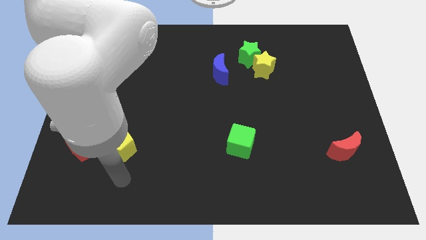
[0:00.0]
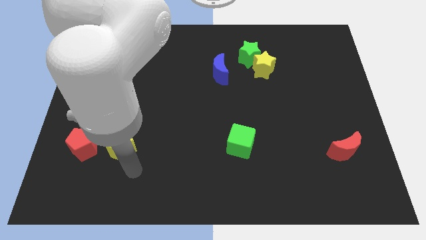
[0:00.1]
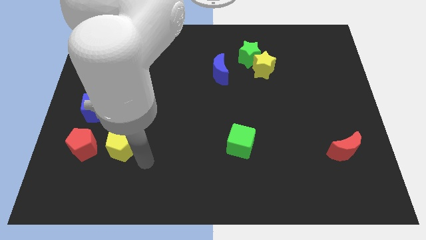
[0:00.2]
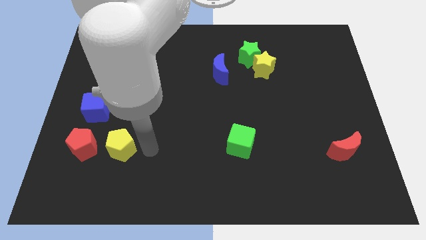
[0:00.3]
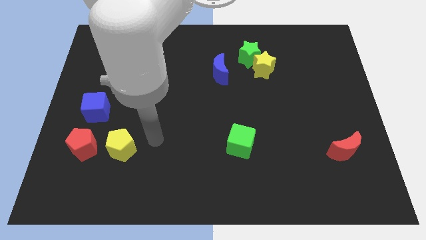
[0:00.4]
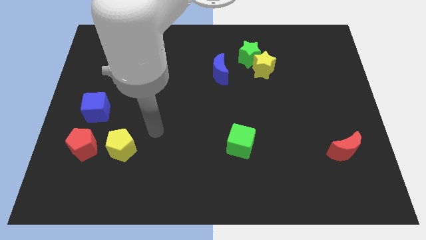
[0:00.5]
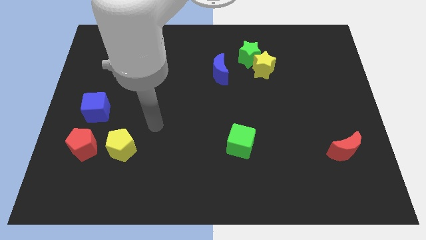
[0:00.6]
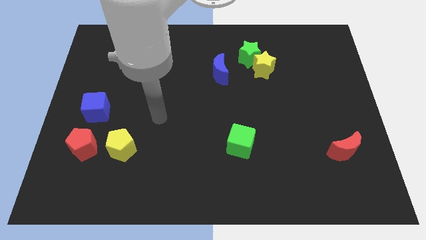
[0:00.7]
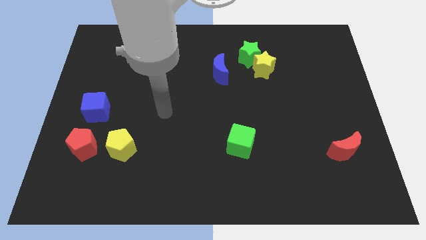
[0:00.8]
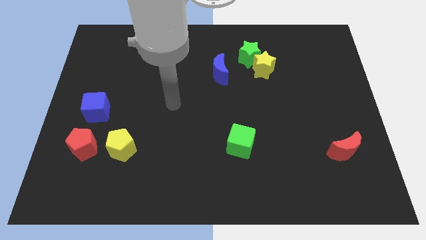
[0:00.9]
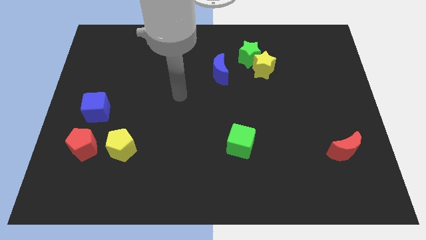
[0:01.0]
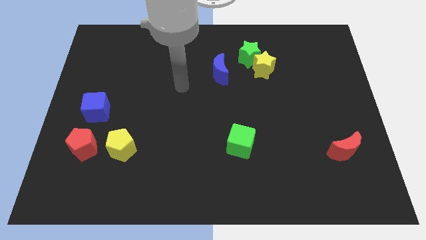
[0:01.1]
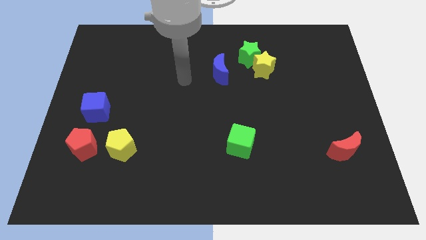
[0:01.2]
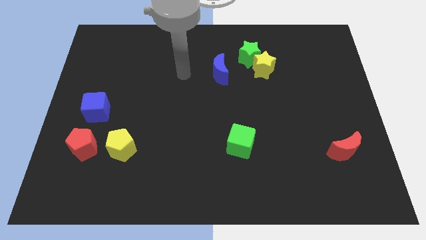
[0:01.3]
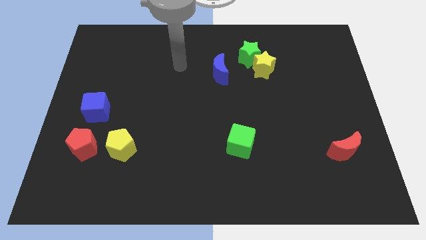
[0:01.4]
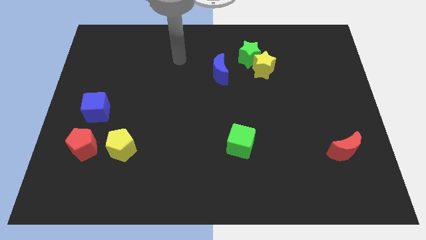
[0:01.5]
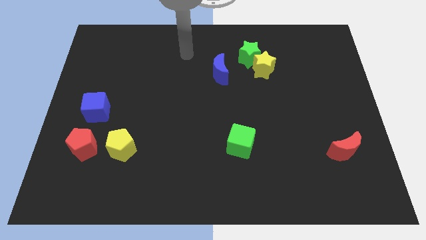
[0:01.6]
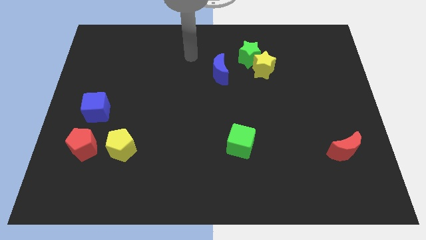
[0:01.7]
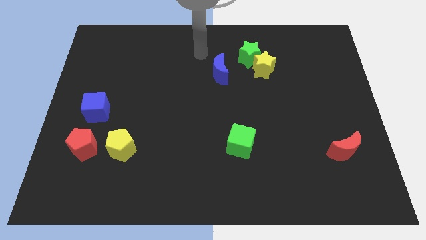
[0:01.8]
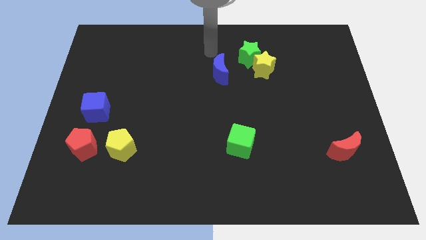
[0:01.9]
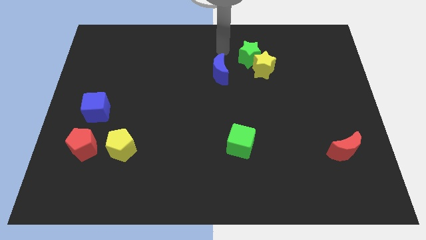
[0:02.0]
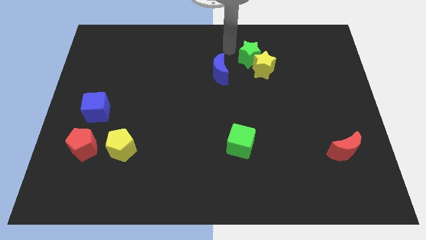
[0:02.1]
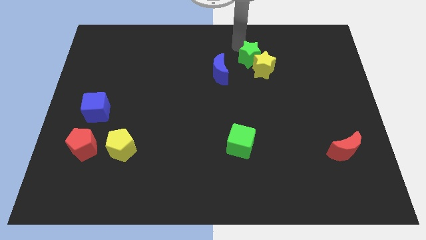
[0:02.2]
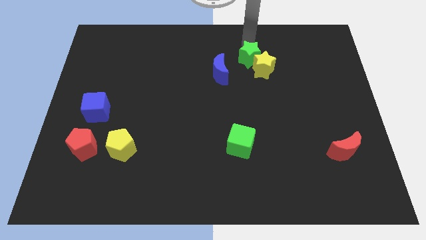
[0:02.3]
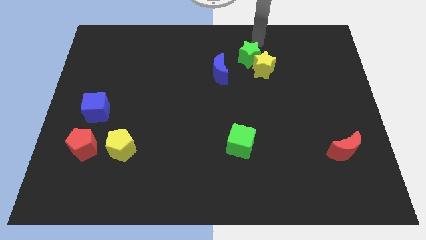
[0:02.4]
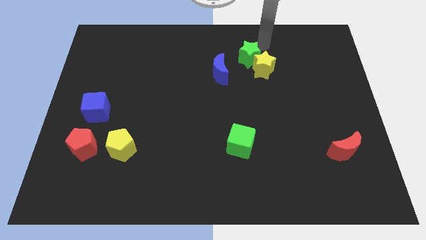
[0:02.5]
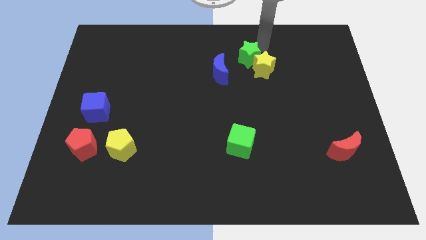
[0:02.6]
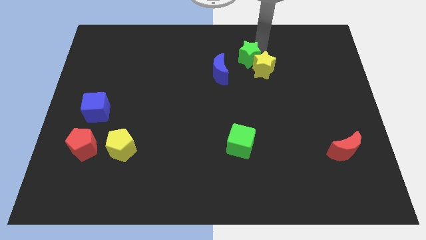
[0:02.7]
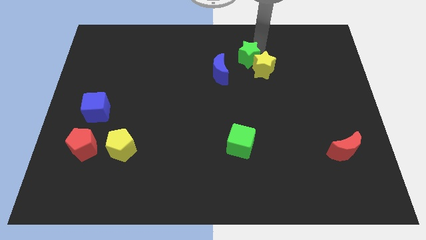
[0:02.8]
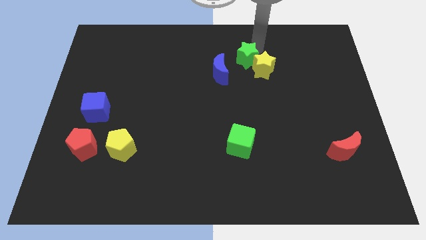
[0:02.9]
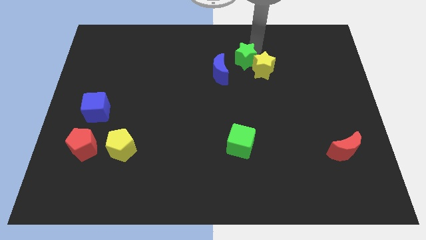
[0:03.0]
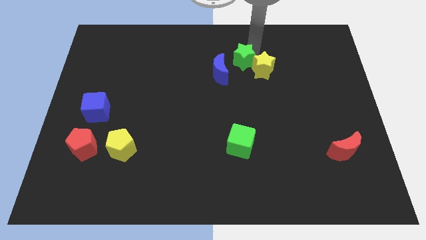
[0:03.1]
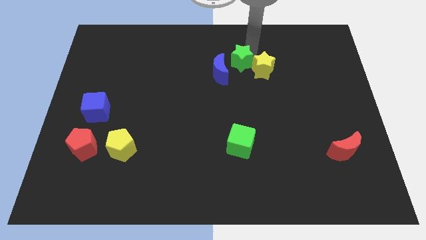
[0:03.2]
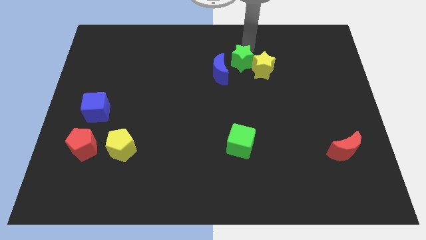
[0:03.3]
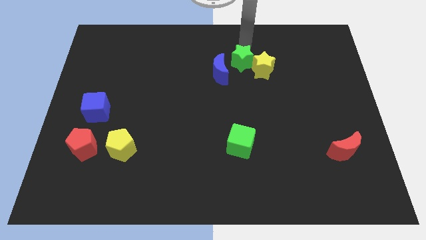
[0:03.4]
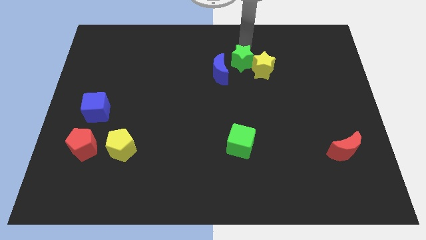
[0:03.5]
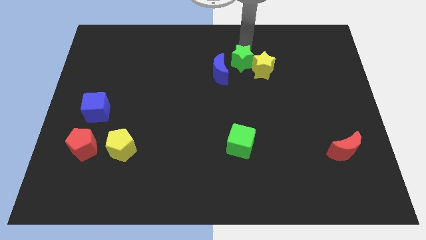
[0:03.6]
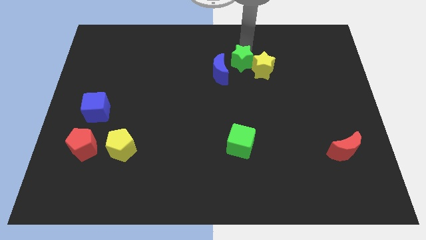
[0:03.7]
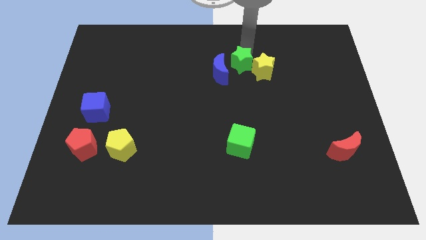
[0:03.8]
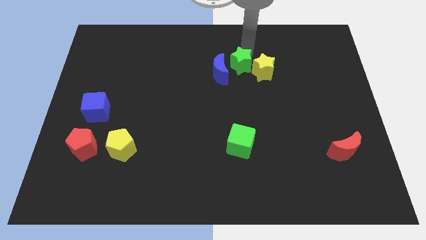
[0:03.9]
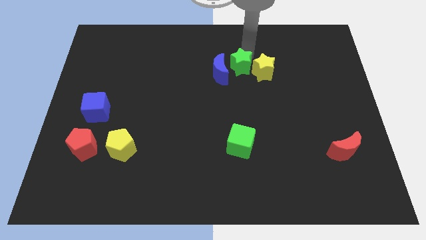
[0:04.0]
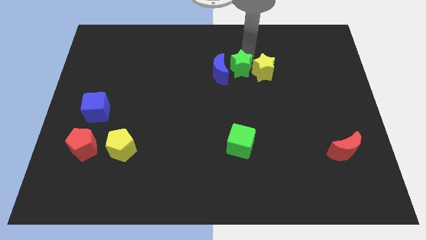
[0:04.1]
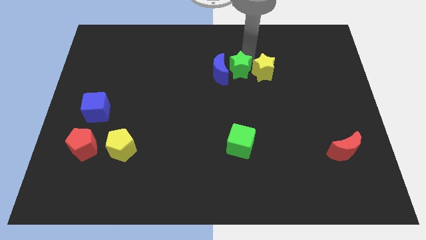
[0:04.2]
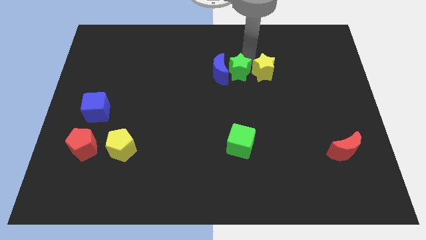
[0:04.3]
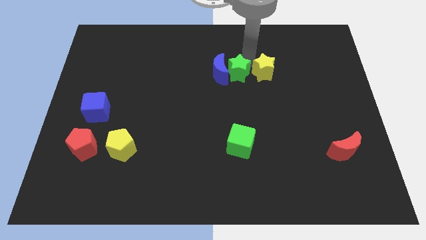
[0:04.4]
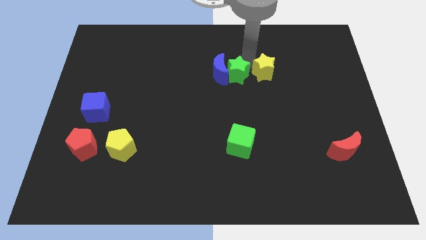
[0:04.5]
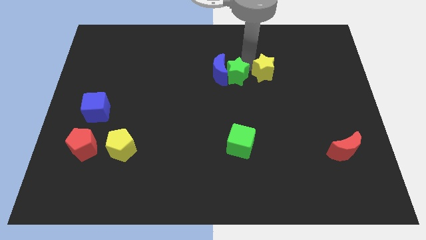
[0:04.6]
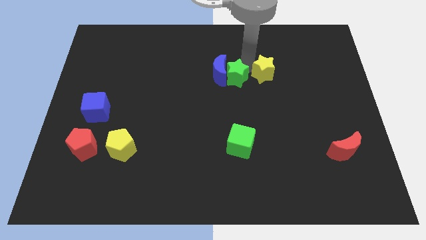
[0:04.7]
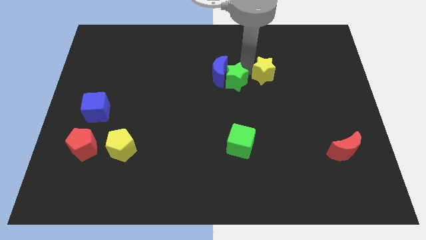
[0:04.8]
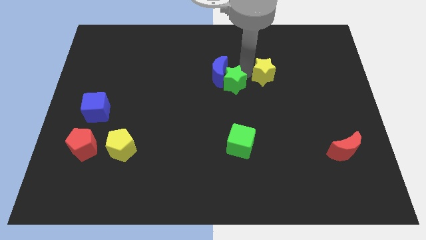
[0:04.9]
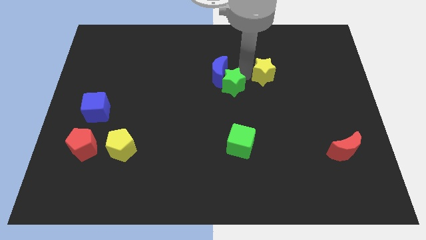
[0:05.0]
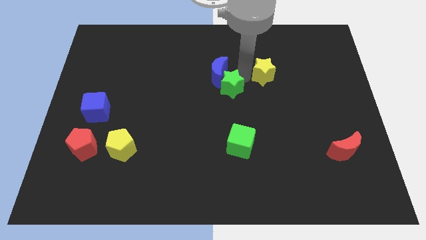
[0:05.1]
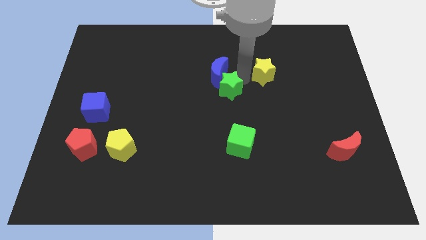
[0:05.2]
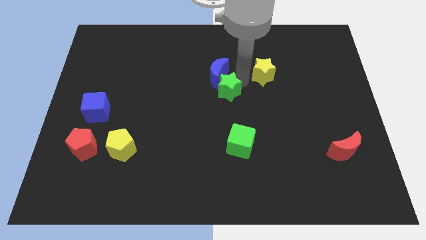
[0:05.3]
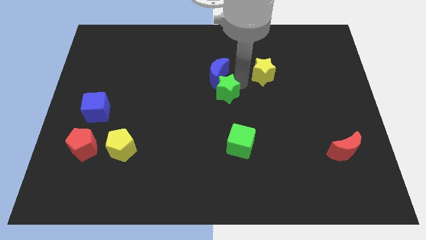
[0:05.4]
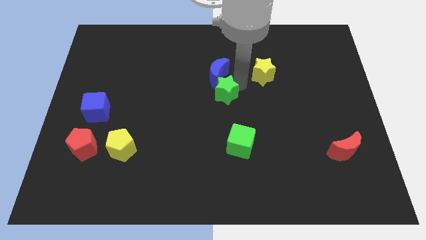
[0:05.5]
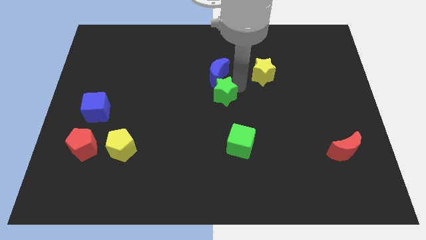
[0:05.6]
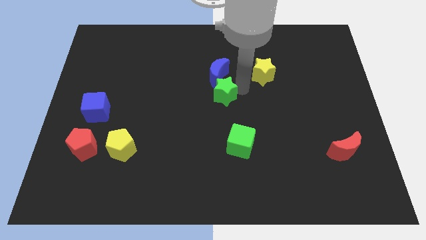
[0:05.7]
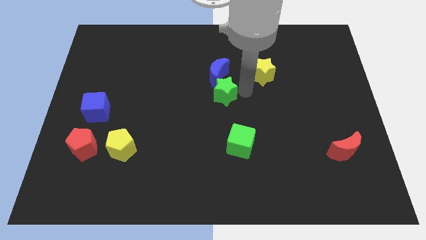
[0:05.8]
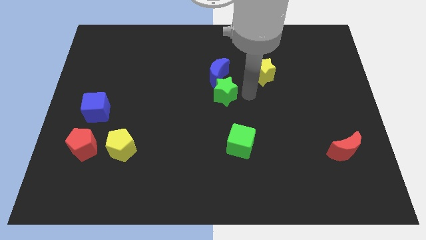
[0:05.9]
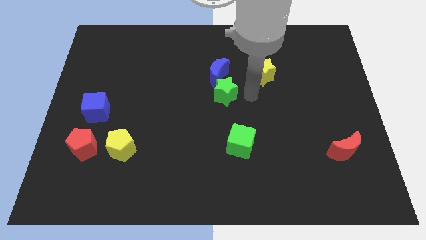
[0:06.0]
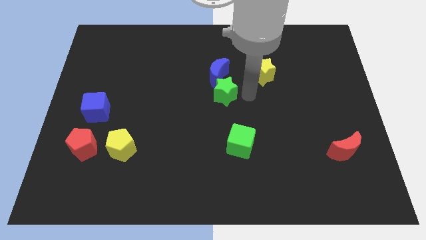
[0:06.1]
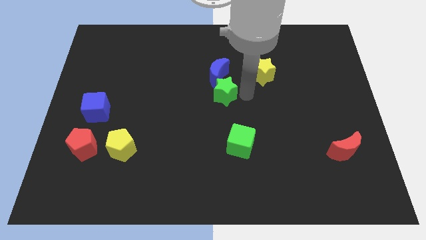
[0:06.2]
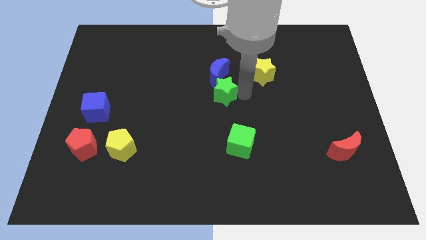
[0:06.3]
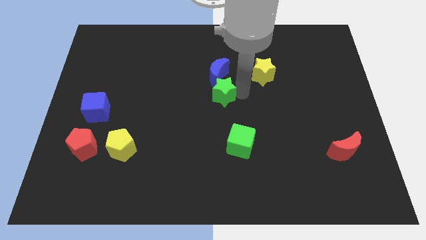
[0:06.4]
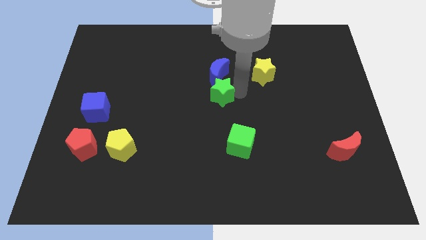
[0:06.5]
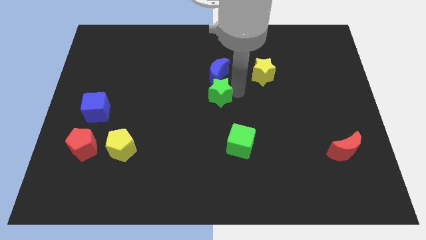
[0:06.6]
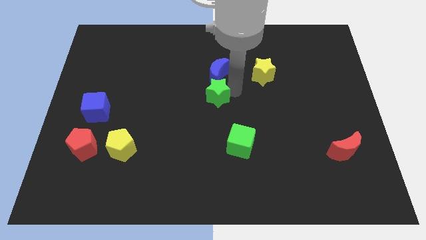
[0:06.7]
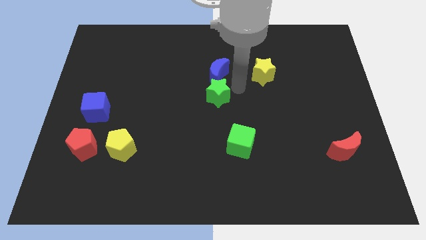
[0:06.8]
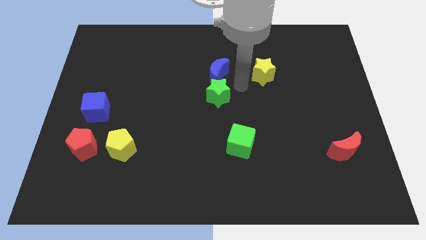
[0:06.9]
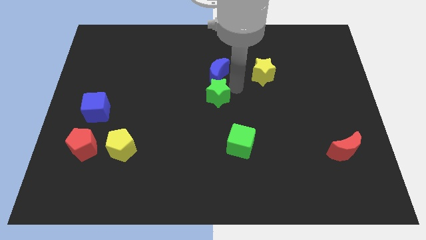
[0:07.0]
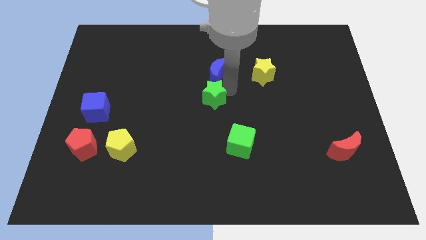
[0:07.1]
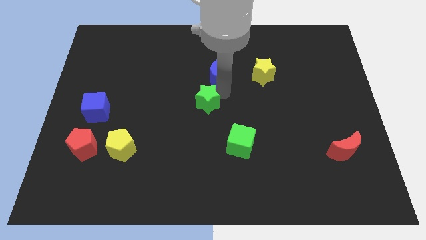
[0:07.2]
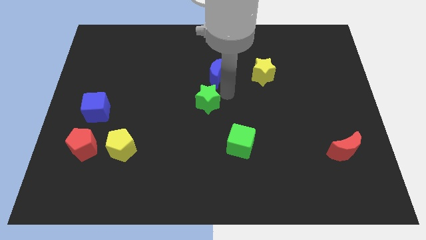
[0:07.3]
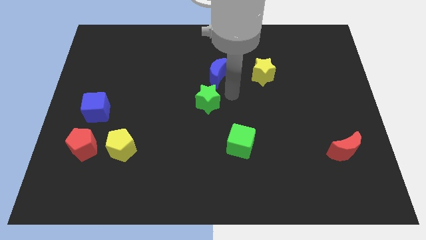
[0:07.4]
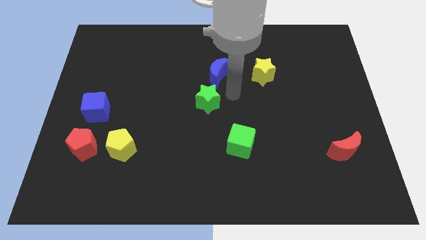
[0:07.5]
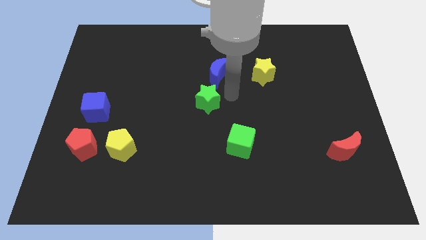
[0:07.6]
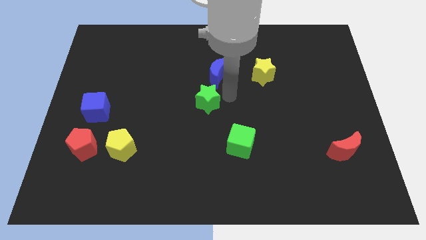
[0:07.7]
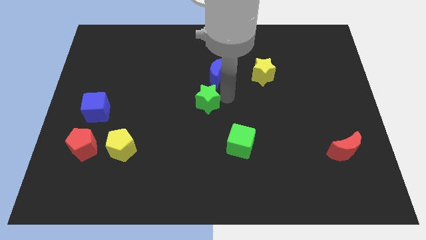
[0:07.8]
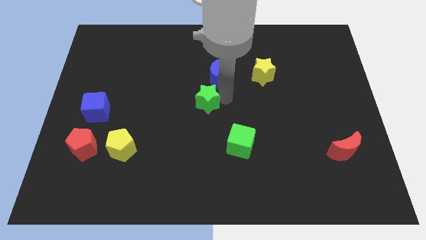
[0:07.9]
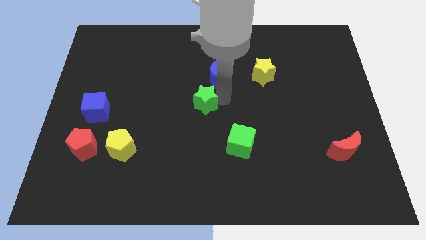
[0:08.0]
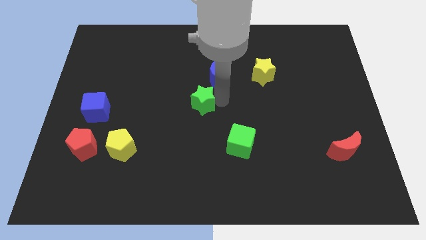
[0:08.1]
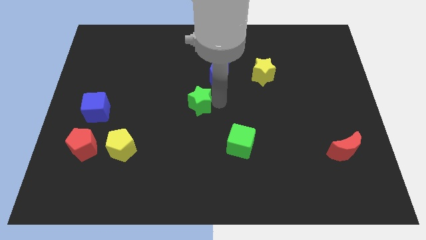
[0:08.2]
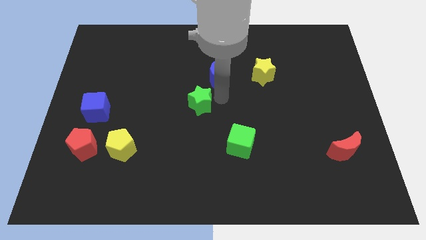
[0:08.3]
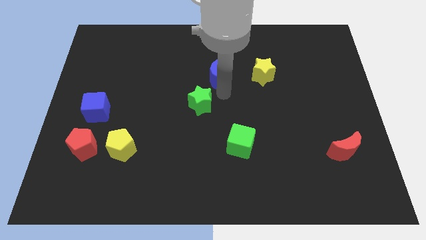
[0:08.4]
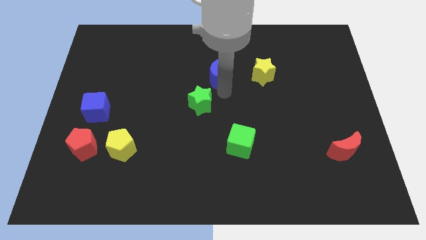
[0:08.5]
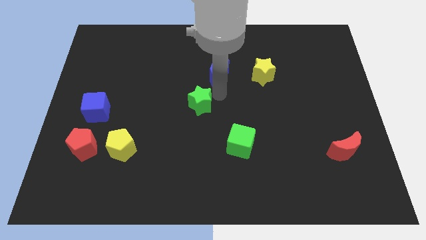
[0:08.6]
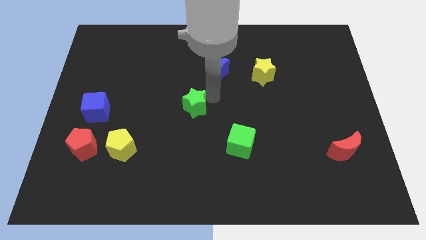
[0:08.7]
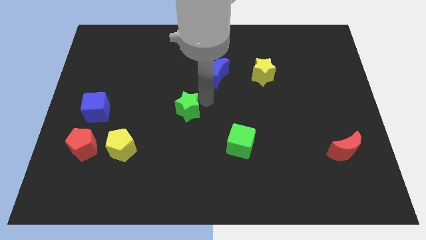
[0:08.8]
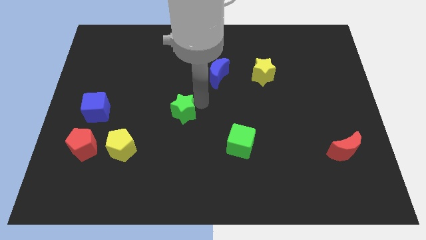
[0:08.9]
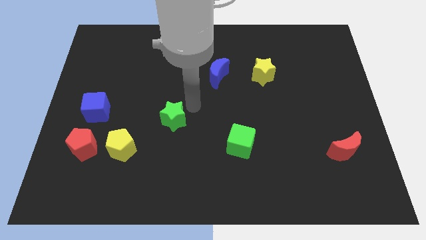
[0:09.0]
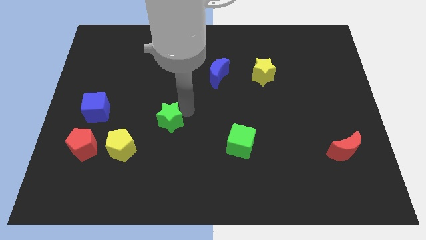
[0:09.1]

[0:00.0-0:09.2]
put the green star diagonally up and to the right of the yellow pentagon
